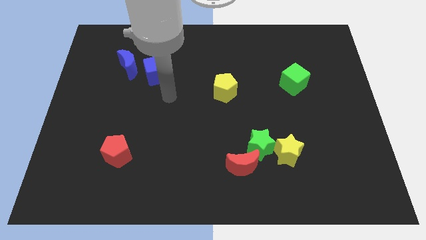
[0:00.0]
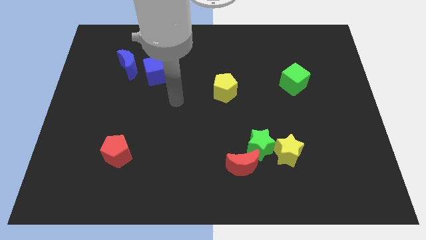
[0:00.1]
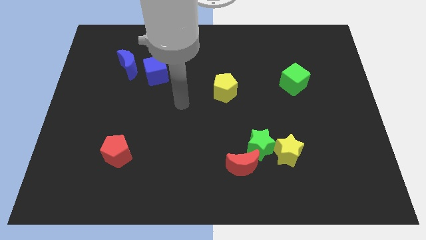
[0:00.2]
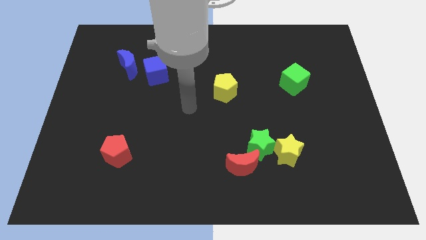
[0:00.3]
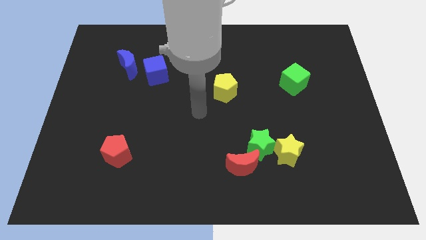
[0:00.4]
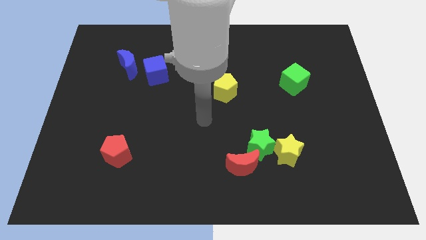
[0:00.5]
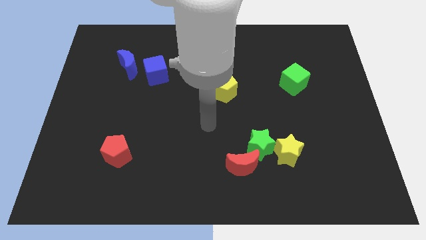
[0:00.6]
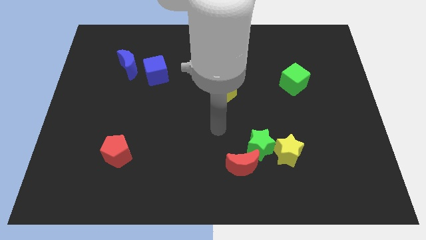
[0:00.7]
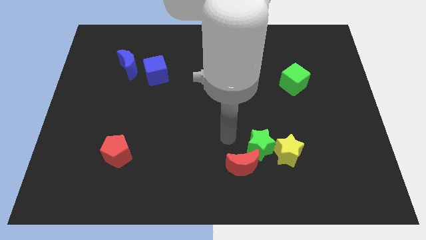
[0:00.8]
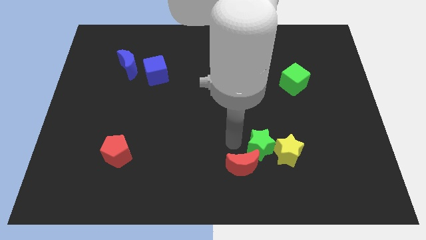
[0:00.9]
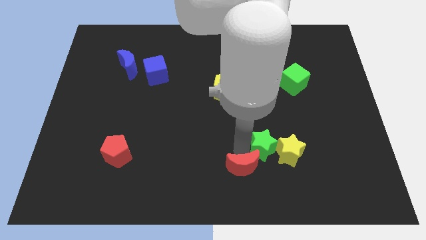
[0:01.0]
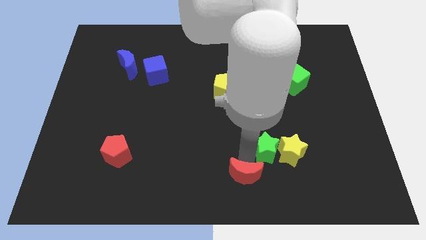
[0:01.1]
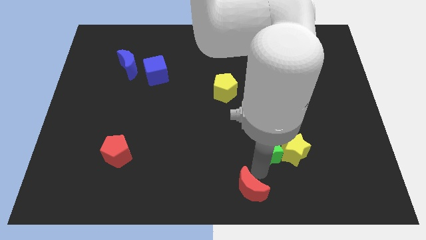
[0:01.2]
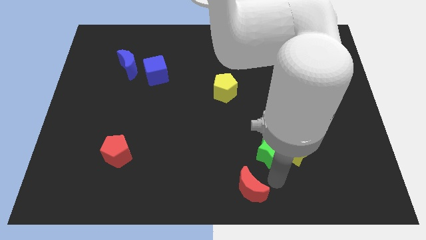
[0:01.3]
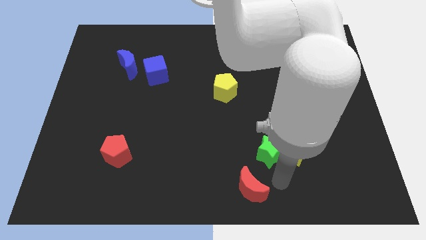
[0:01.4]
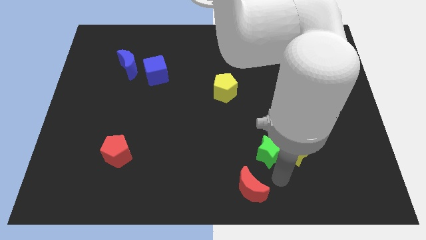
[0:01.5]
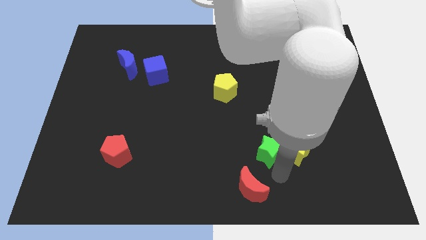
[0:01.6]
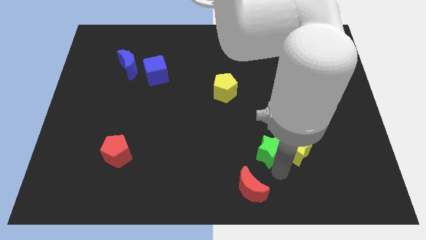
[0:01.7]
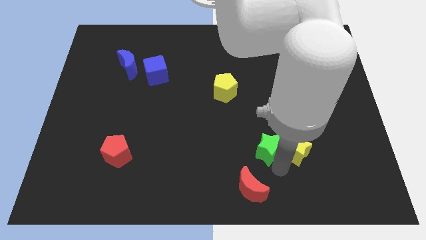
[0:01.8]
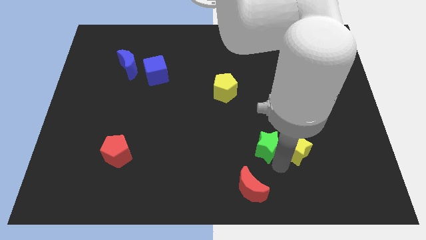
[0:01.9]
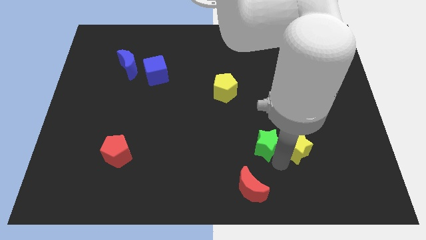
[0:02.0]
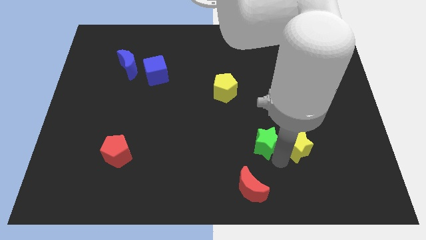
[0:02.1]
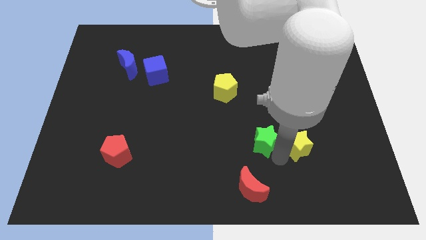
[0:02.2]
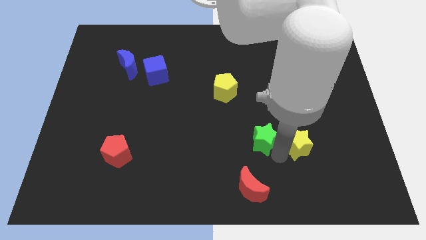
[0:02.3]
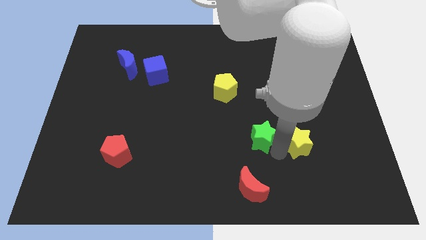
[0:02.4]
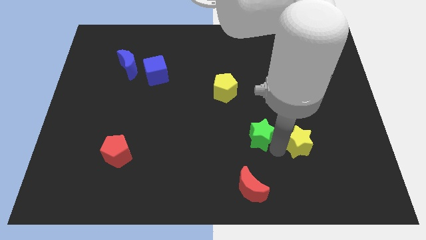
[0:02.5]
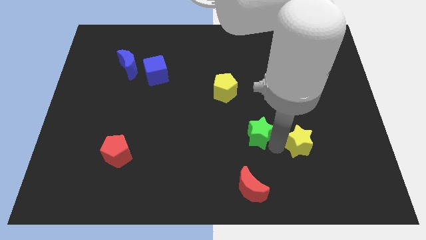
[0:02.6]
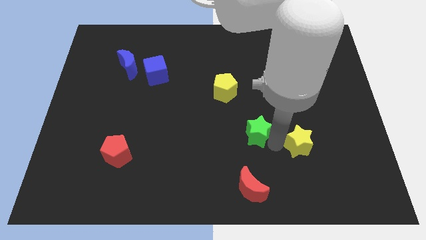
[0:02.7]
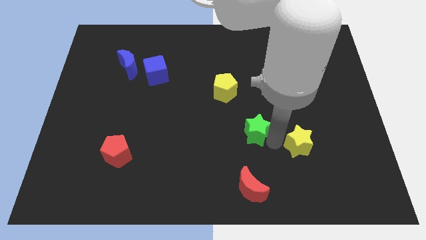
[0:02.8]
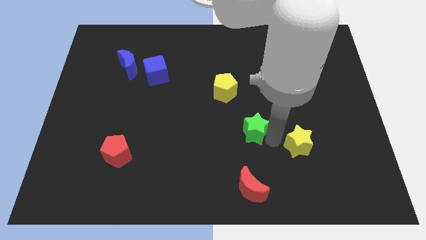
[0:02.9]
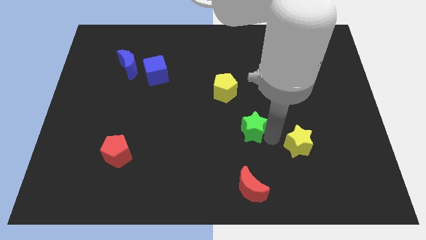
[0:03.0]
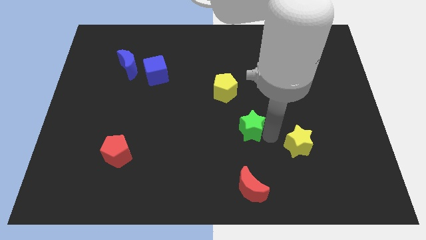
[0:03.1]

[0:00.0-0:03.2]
move the green star away from the red moon and yellow star

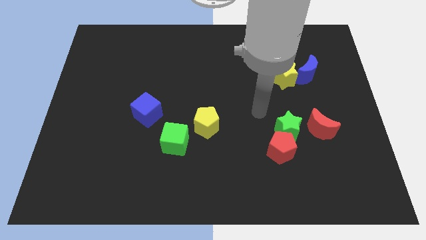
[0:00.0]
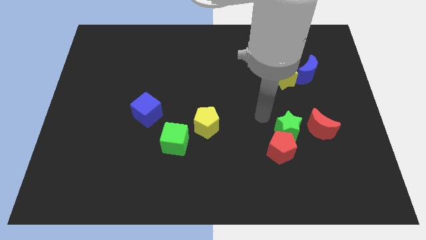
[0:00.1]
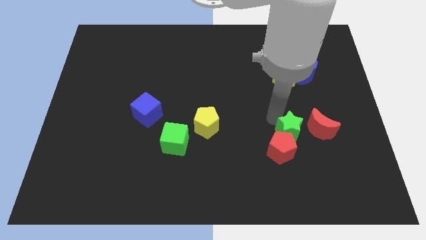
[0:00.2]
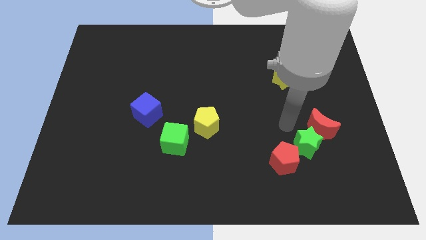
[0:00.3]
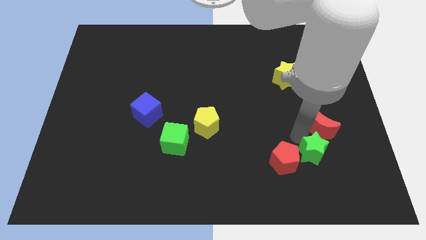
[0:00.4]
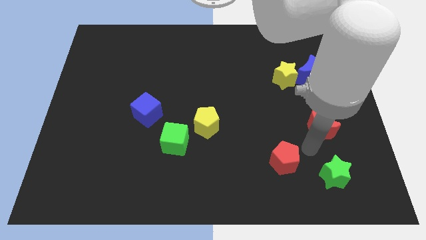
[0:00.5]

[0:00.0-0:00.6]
pull the red pentagon apart from the green star

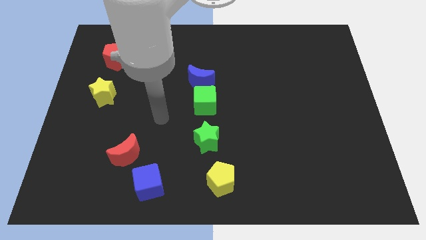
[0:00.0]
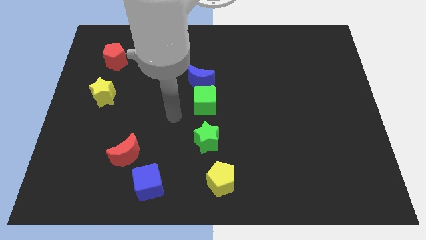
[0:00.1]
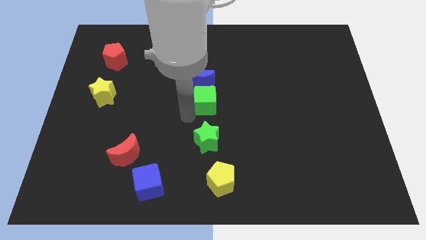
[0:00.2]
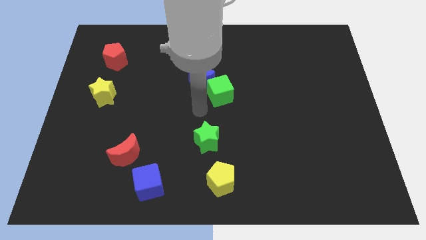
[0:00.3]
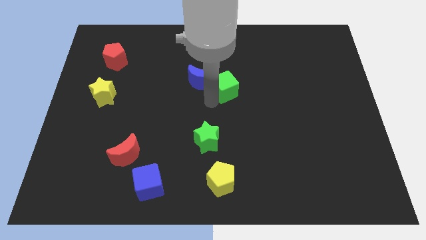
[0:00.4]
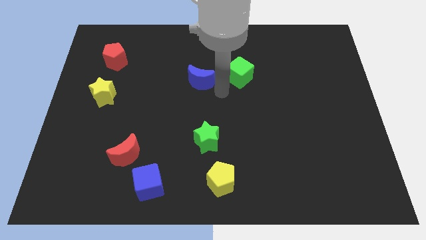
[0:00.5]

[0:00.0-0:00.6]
pull the blue moon apart from the green cube

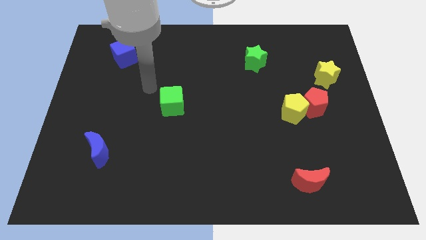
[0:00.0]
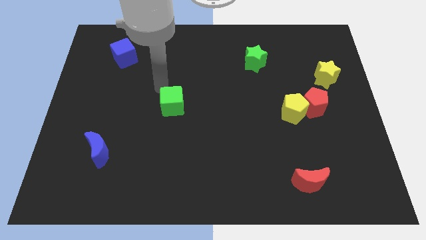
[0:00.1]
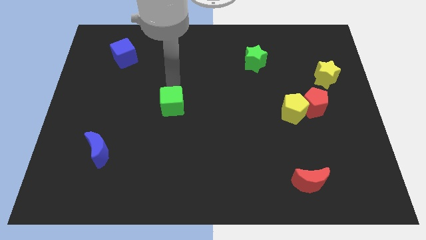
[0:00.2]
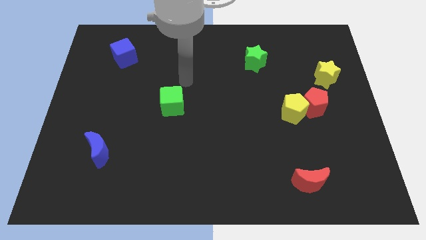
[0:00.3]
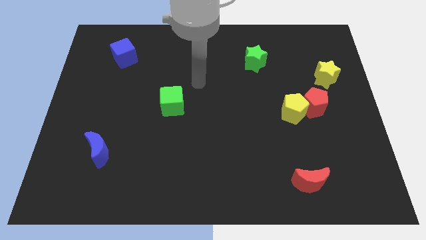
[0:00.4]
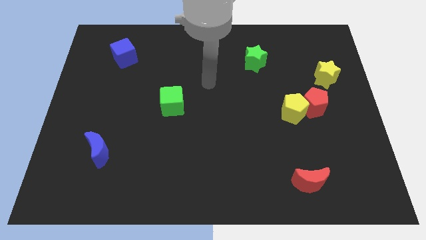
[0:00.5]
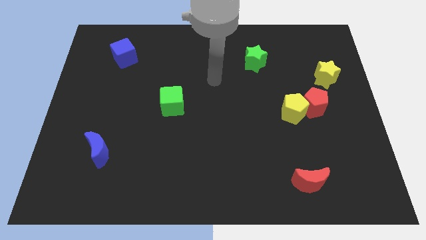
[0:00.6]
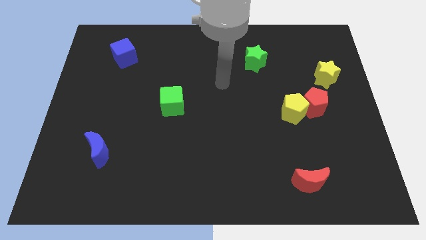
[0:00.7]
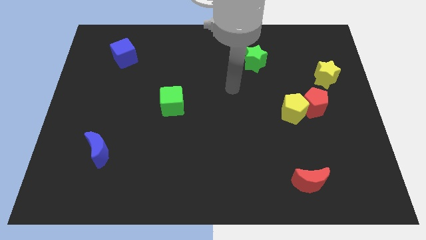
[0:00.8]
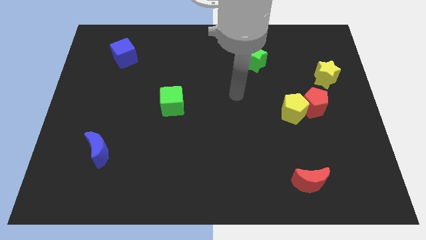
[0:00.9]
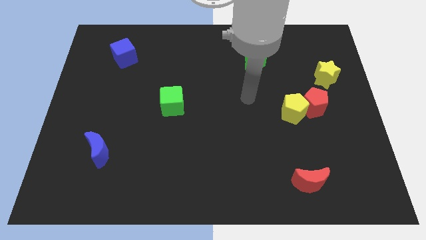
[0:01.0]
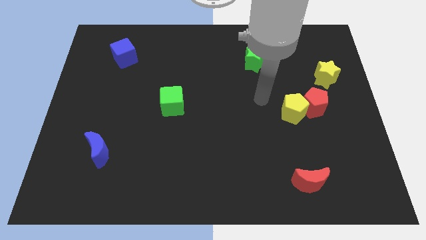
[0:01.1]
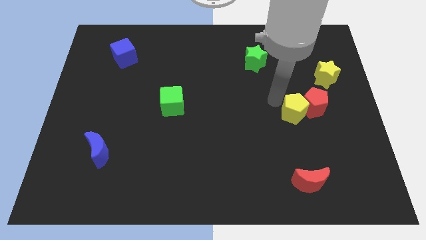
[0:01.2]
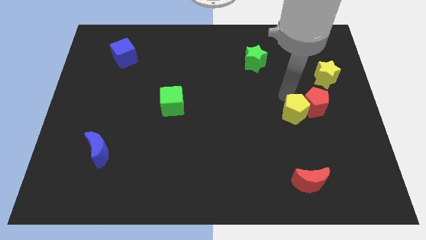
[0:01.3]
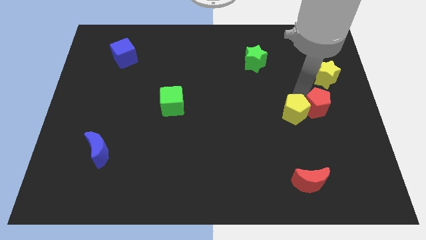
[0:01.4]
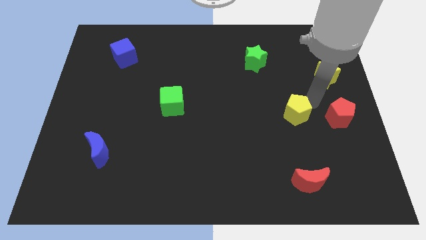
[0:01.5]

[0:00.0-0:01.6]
pull the yellow pentagon apart from the red pentagon

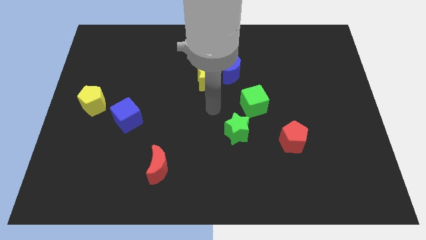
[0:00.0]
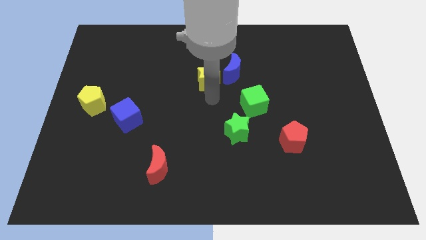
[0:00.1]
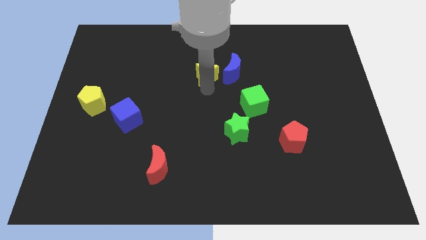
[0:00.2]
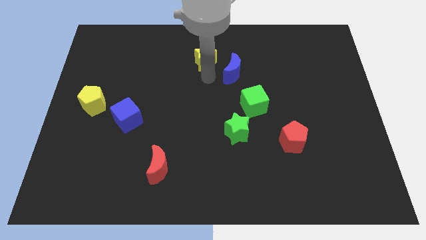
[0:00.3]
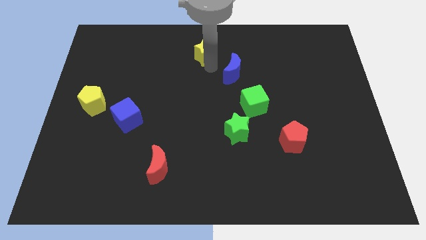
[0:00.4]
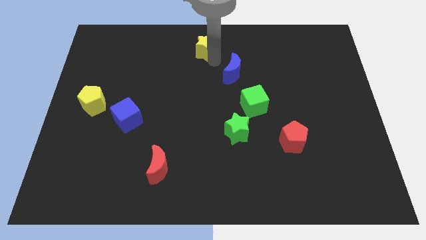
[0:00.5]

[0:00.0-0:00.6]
move the blue moon away from the yellow star

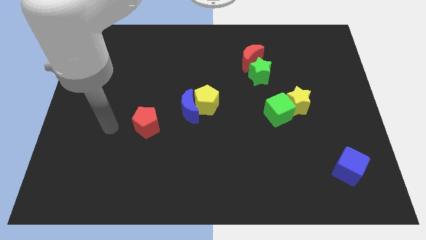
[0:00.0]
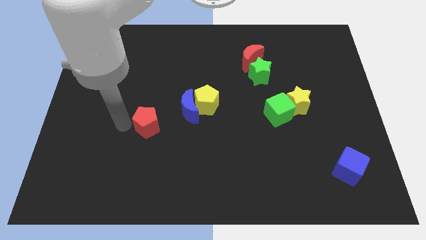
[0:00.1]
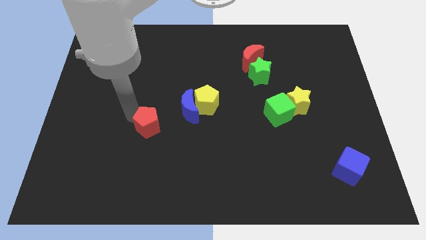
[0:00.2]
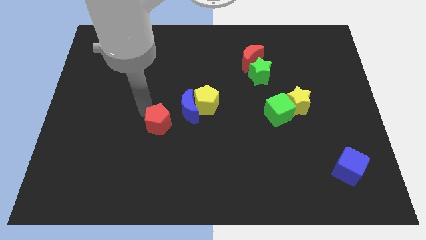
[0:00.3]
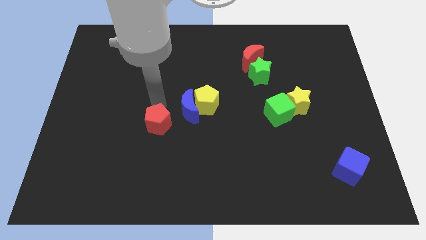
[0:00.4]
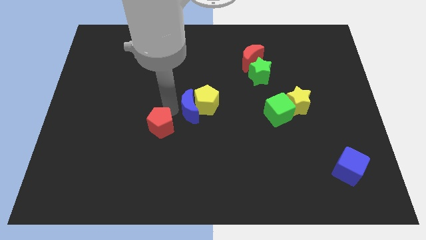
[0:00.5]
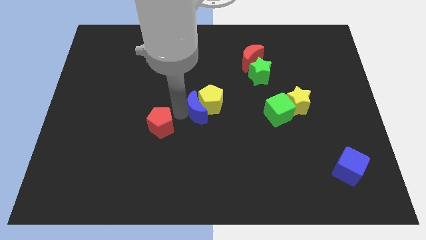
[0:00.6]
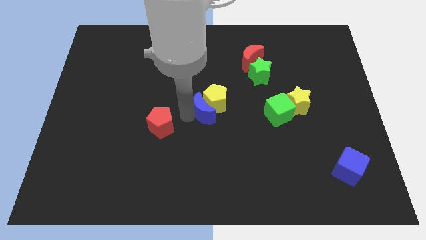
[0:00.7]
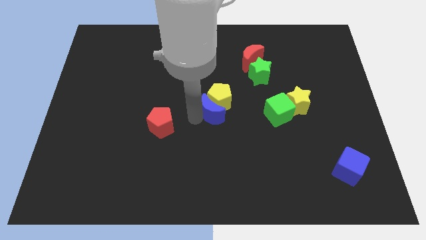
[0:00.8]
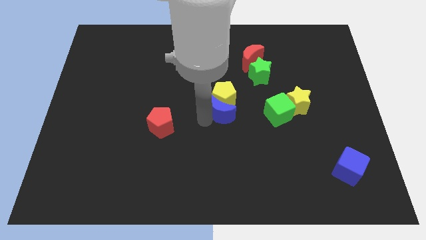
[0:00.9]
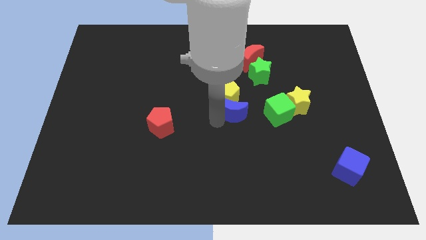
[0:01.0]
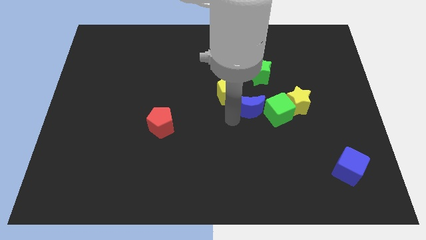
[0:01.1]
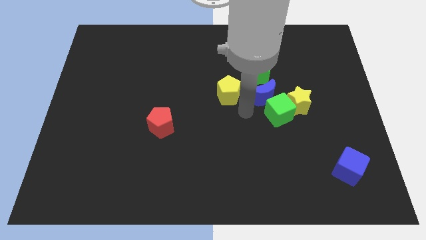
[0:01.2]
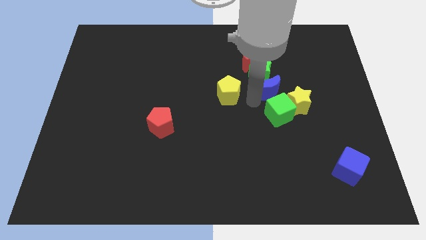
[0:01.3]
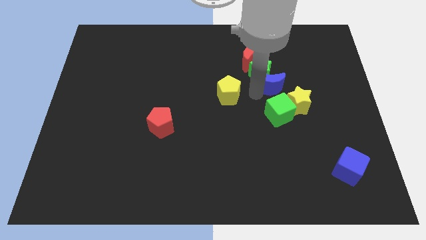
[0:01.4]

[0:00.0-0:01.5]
separate the yellow pentagon from the blue moon

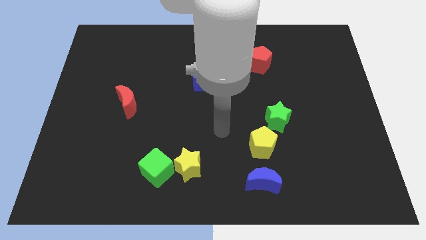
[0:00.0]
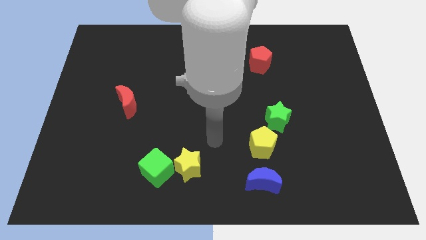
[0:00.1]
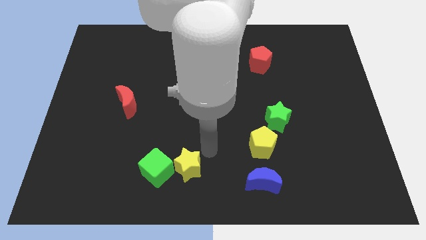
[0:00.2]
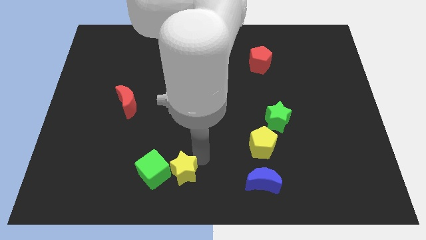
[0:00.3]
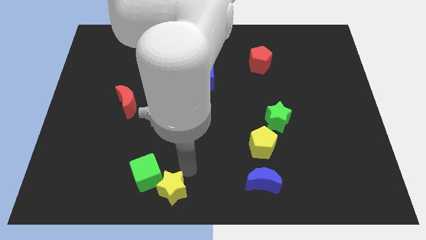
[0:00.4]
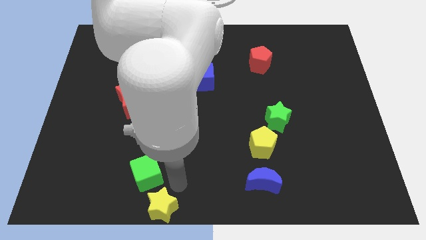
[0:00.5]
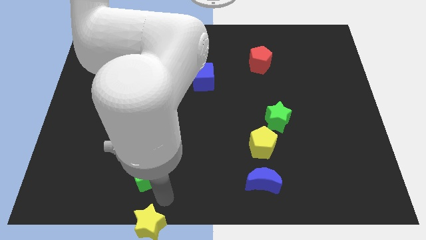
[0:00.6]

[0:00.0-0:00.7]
separate the green cube from the yellow star

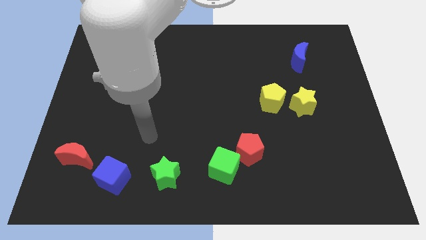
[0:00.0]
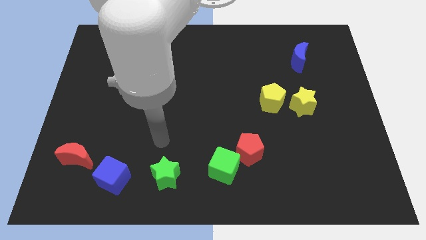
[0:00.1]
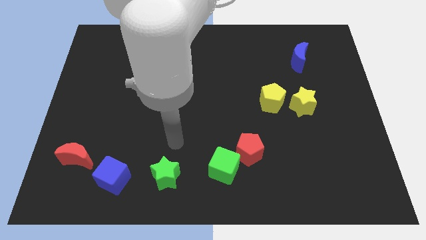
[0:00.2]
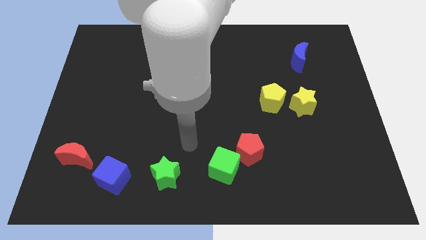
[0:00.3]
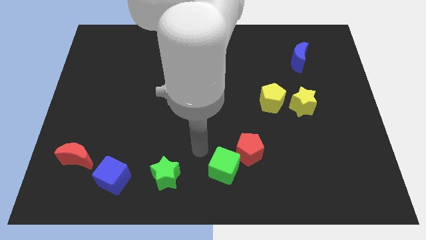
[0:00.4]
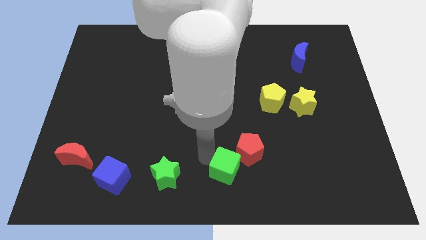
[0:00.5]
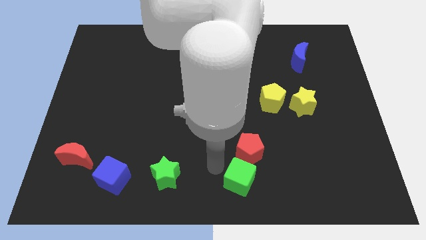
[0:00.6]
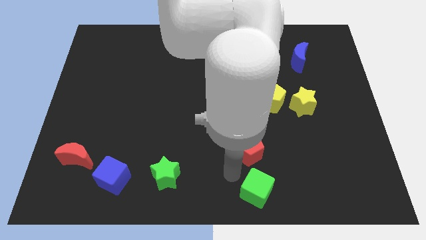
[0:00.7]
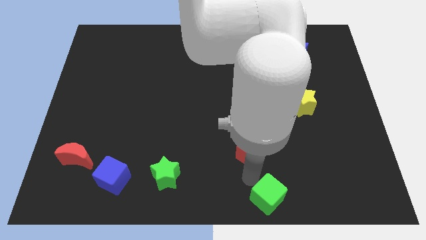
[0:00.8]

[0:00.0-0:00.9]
separate the red pentagon from the green cube
